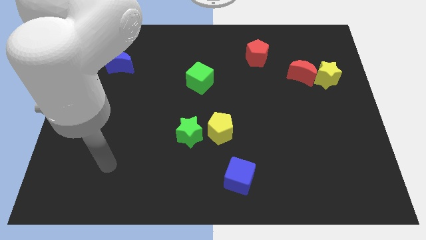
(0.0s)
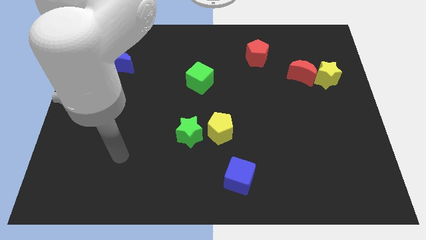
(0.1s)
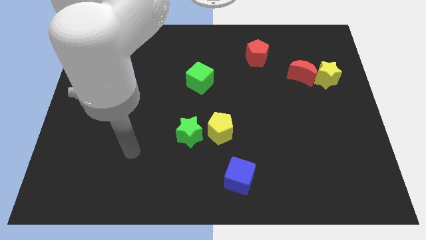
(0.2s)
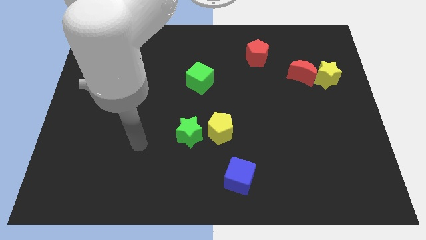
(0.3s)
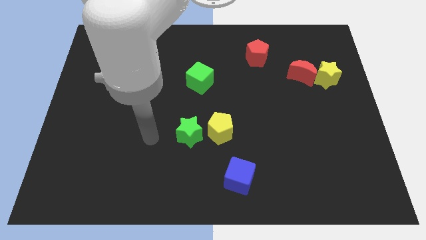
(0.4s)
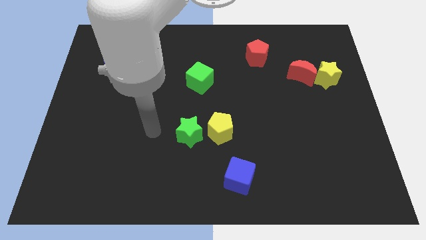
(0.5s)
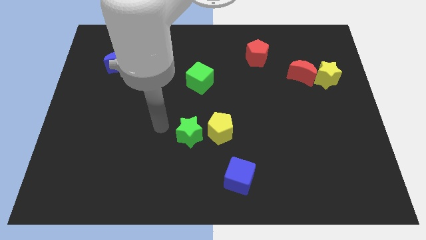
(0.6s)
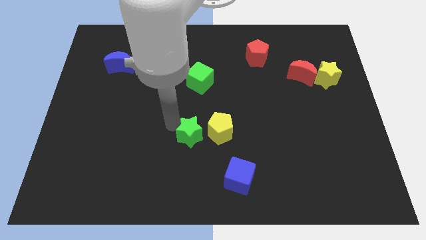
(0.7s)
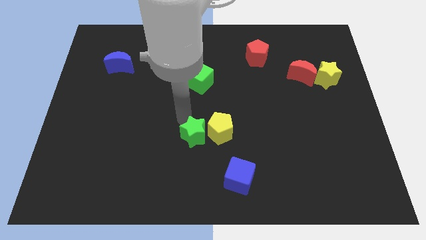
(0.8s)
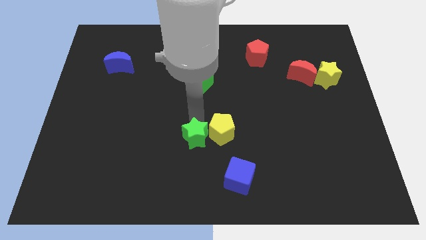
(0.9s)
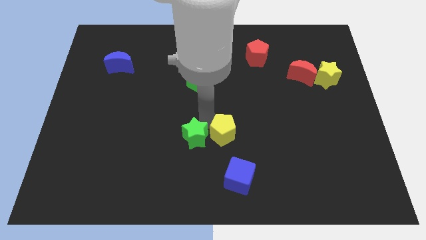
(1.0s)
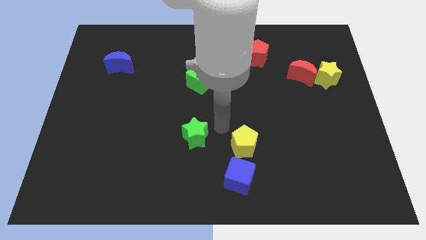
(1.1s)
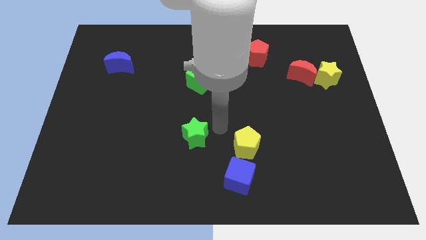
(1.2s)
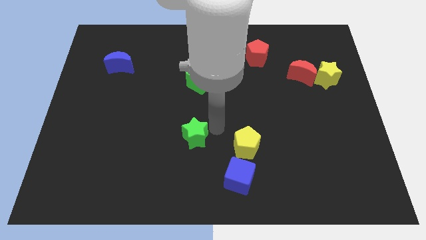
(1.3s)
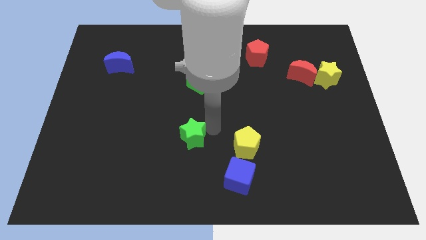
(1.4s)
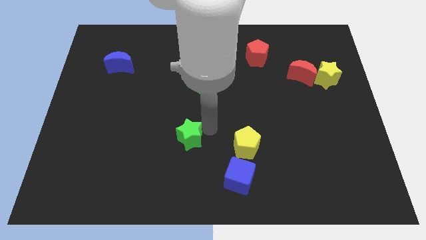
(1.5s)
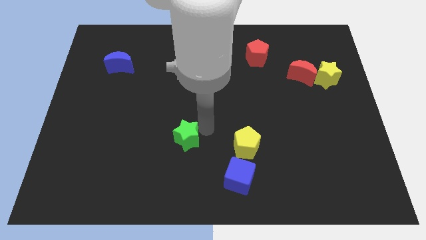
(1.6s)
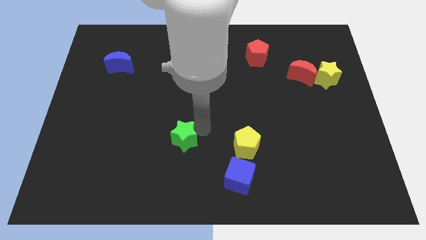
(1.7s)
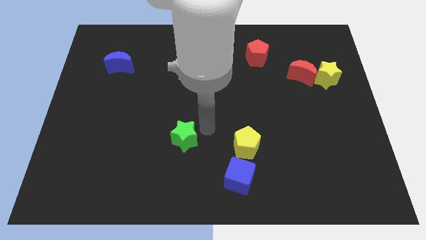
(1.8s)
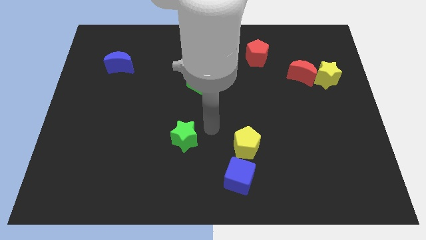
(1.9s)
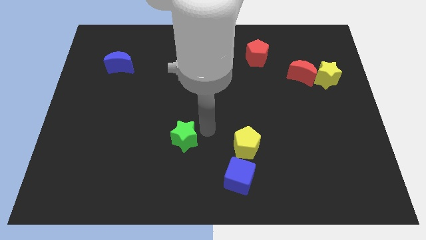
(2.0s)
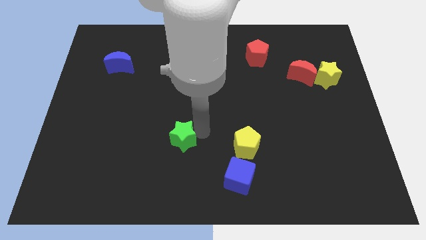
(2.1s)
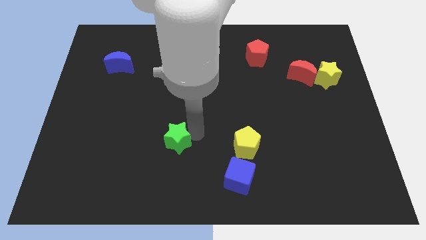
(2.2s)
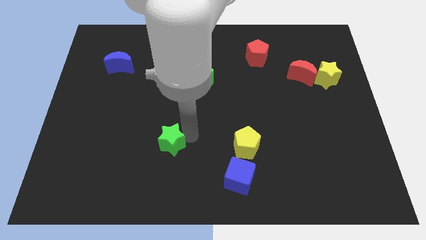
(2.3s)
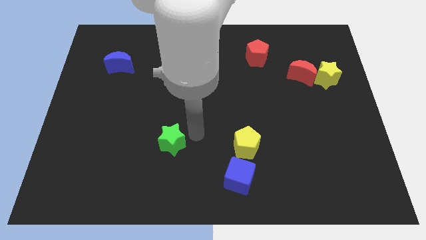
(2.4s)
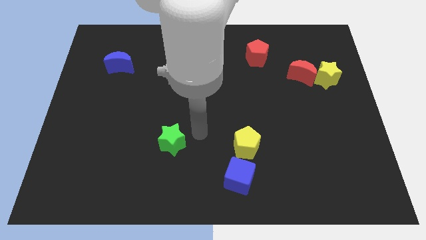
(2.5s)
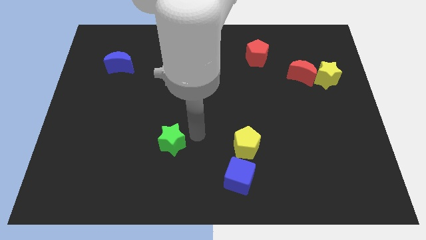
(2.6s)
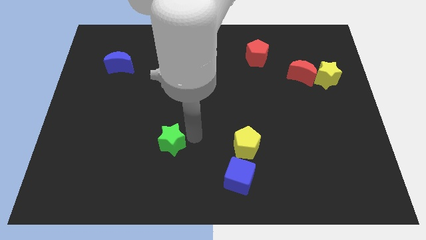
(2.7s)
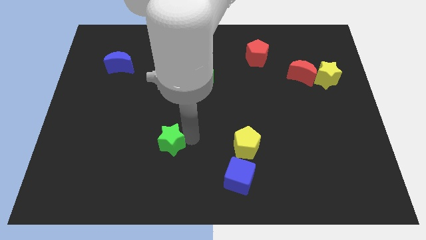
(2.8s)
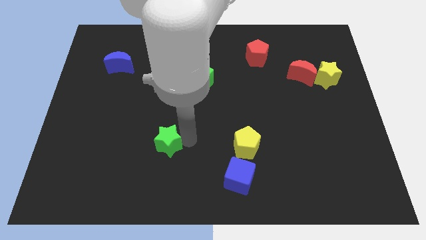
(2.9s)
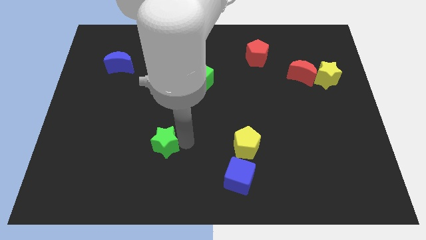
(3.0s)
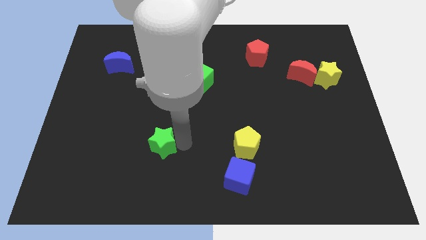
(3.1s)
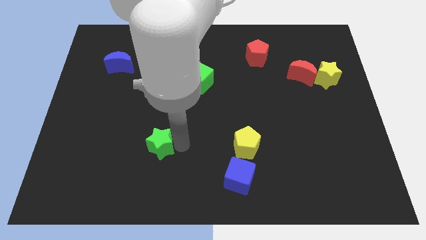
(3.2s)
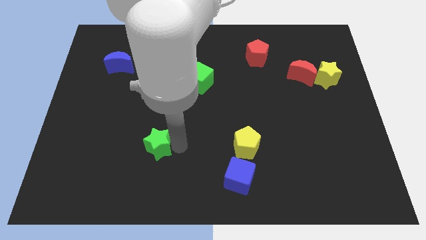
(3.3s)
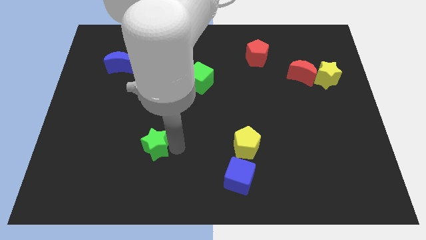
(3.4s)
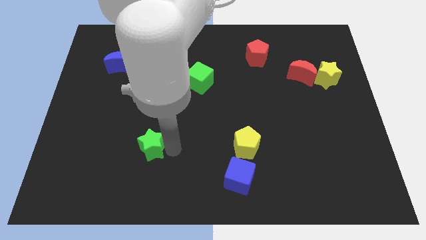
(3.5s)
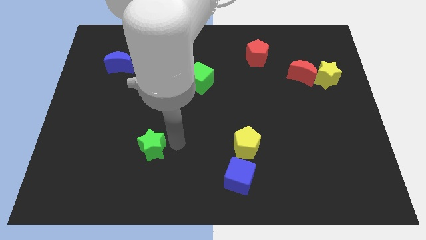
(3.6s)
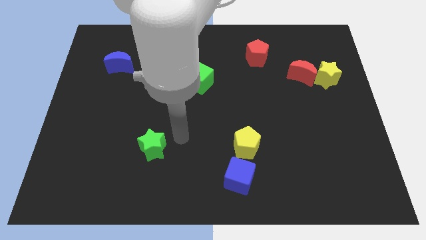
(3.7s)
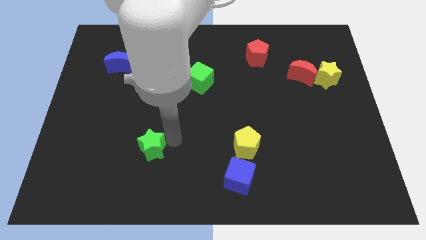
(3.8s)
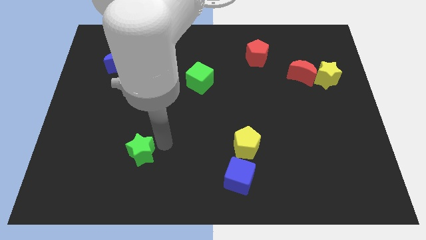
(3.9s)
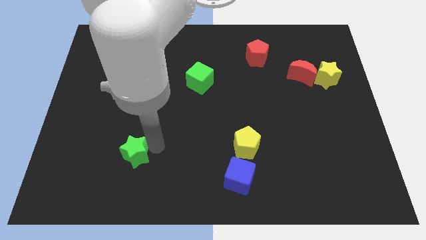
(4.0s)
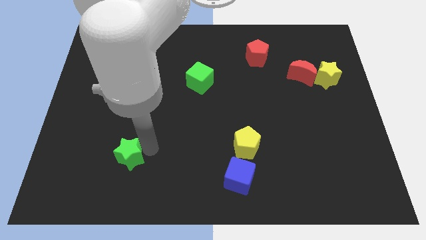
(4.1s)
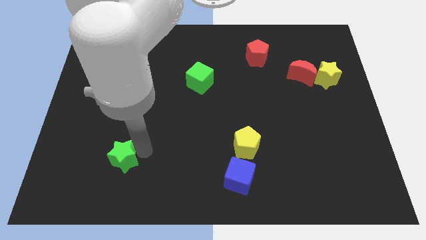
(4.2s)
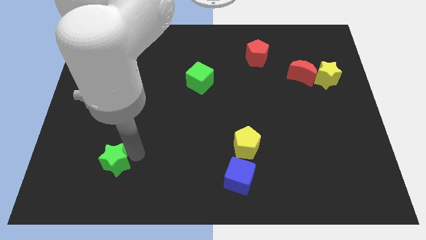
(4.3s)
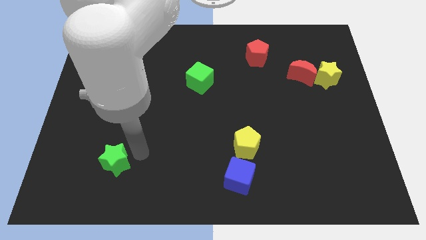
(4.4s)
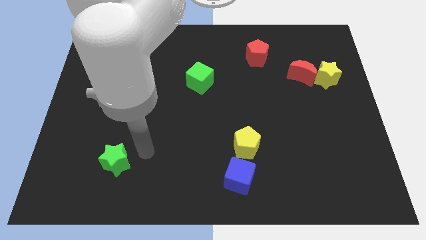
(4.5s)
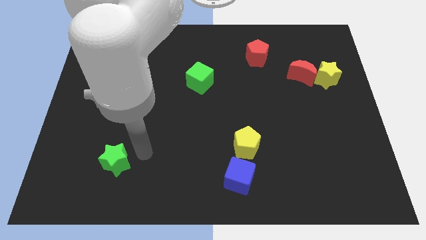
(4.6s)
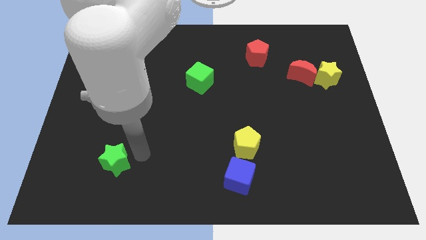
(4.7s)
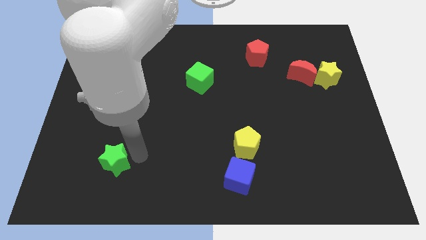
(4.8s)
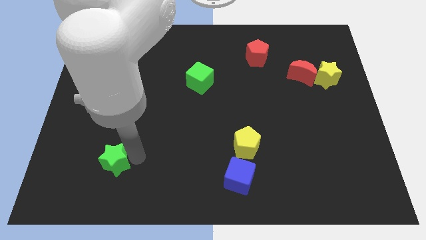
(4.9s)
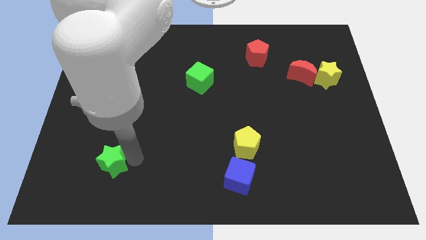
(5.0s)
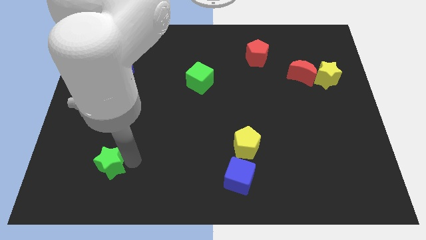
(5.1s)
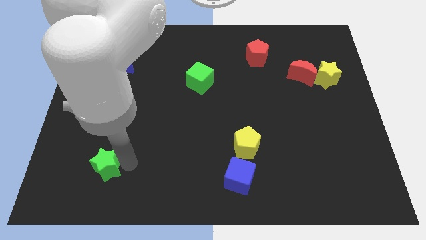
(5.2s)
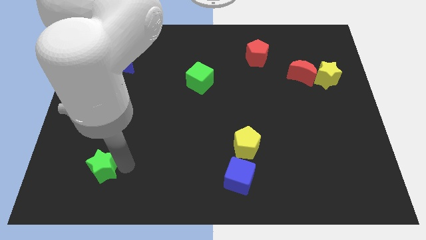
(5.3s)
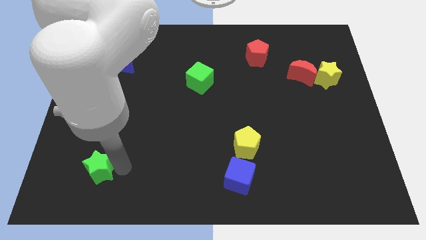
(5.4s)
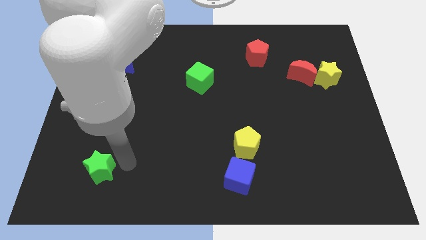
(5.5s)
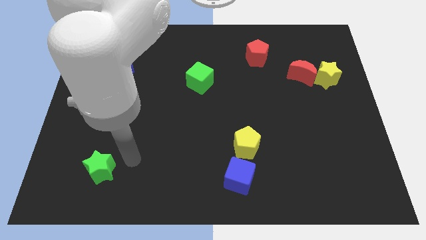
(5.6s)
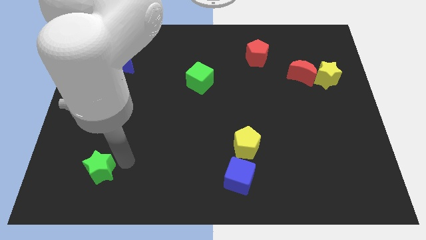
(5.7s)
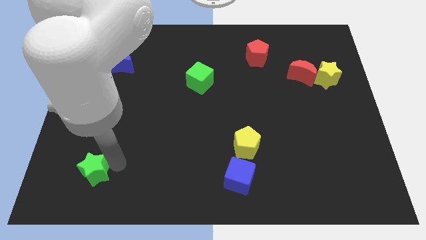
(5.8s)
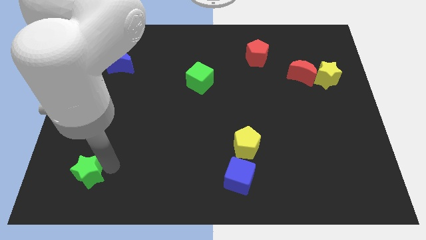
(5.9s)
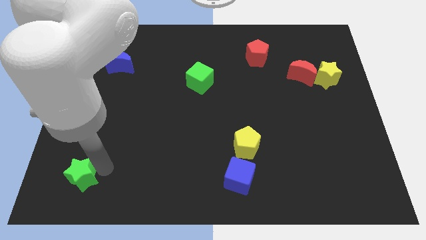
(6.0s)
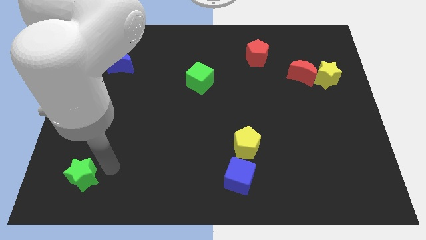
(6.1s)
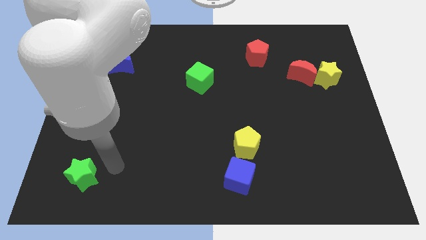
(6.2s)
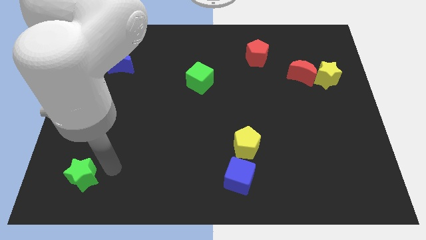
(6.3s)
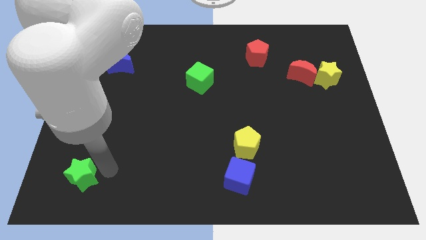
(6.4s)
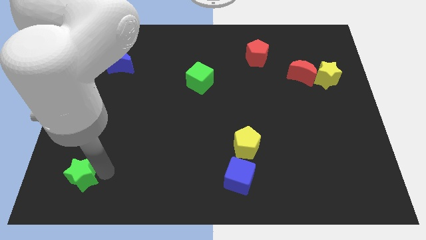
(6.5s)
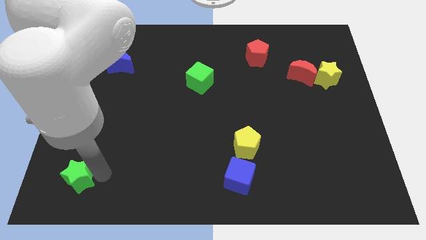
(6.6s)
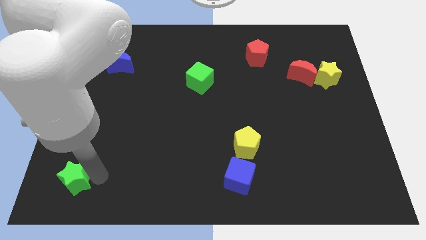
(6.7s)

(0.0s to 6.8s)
slide the green star to the bottom left of the board

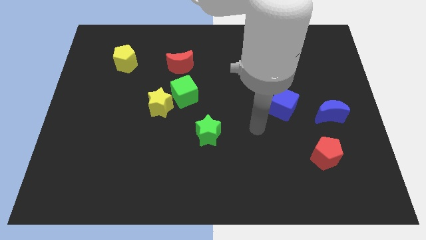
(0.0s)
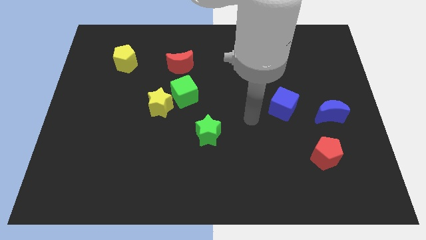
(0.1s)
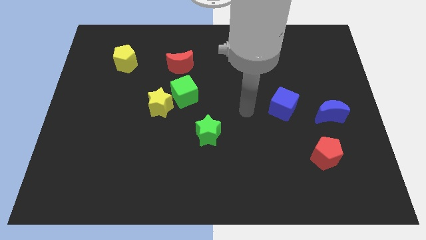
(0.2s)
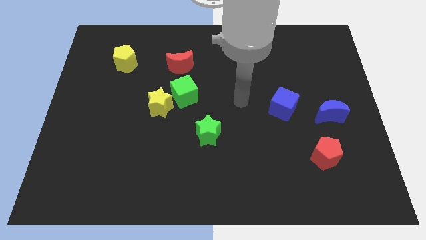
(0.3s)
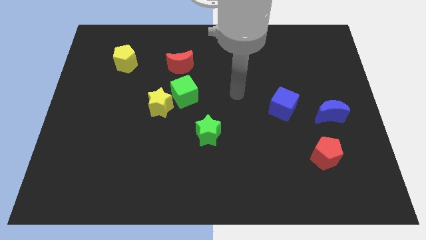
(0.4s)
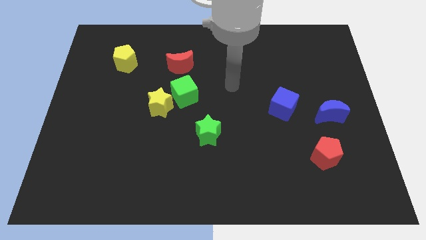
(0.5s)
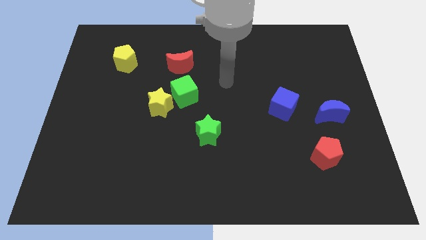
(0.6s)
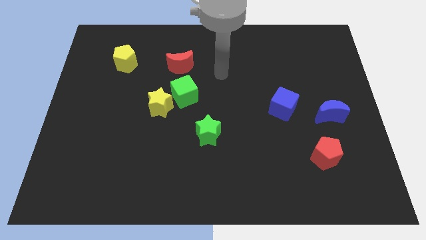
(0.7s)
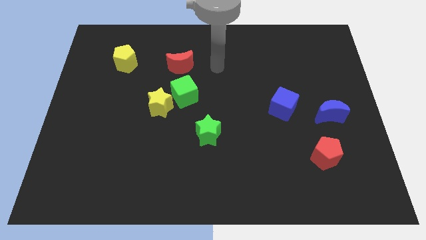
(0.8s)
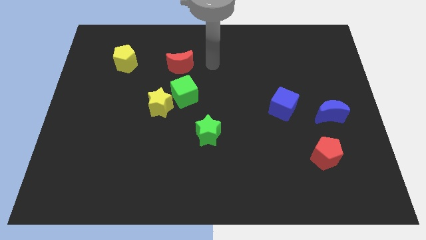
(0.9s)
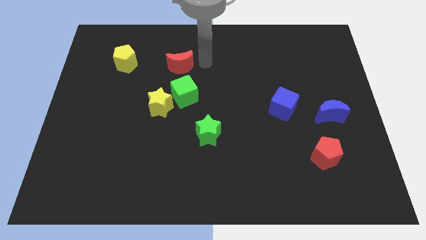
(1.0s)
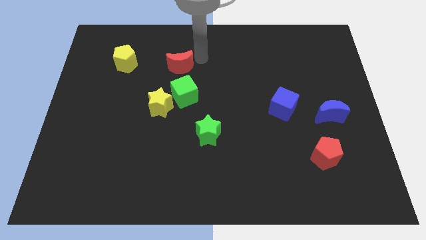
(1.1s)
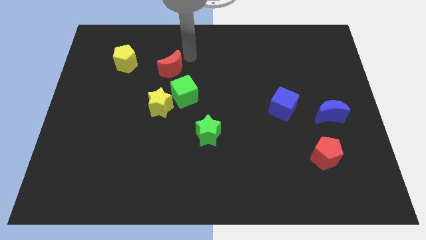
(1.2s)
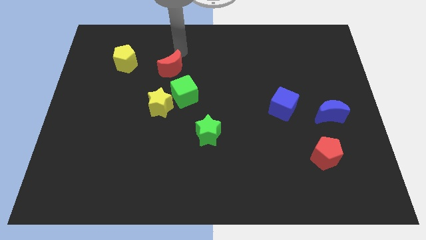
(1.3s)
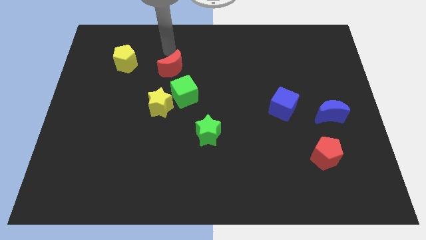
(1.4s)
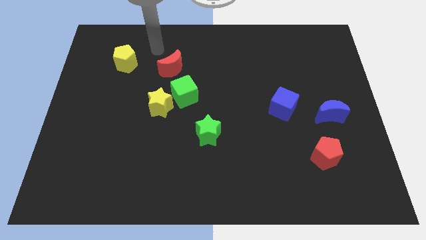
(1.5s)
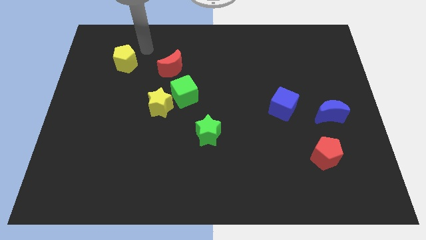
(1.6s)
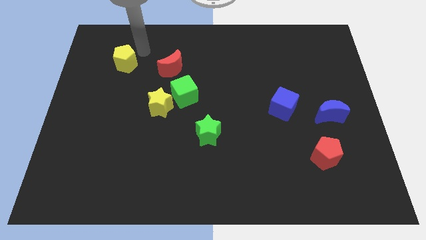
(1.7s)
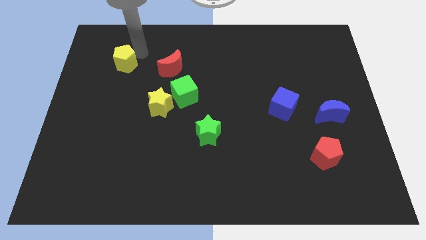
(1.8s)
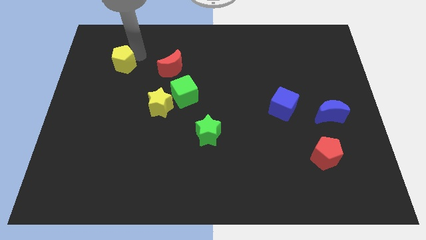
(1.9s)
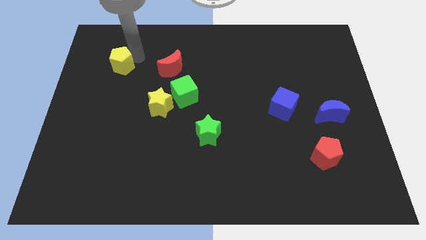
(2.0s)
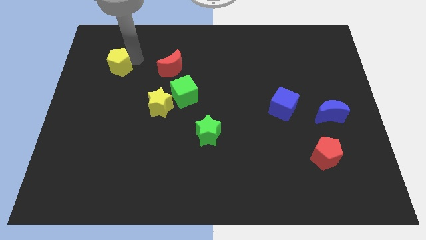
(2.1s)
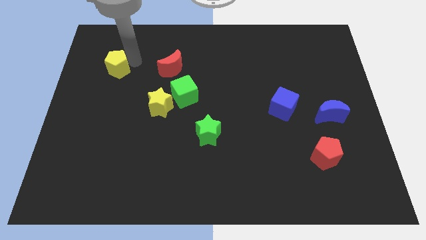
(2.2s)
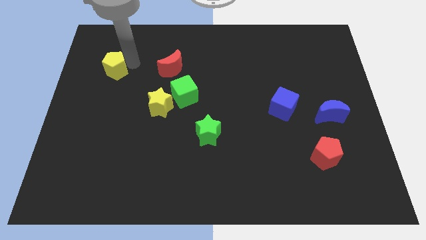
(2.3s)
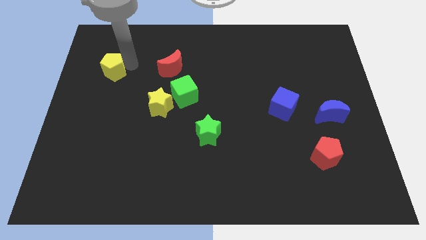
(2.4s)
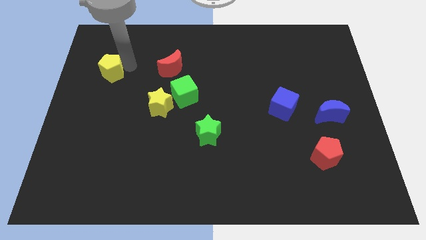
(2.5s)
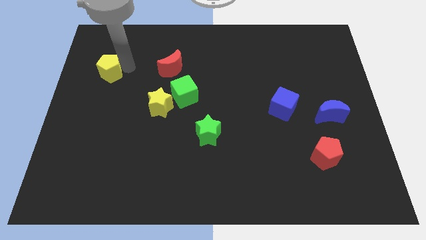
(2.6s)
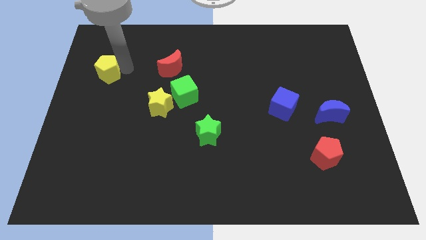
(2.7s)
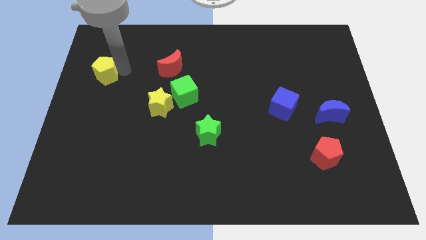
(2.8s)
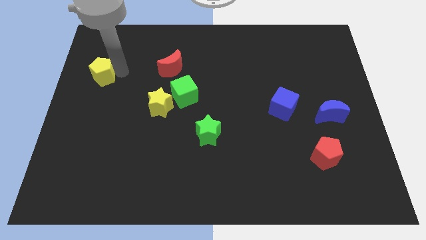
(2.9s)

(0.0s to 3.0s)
put the yellow pentagon to the left side
